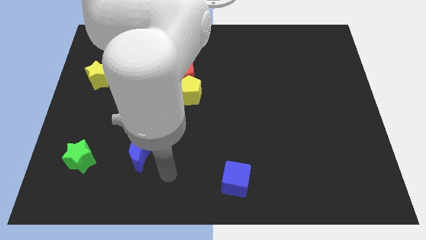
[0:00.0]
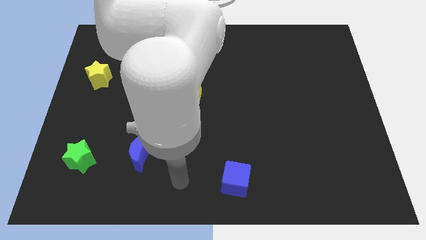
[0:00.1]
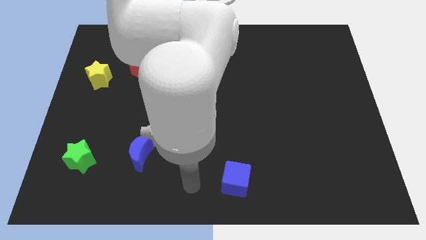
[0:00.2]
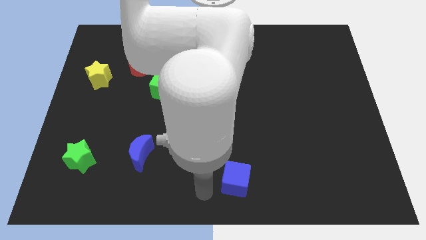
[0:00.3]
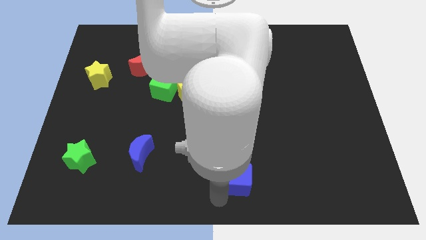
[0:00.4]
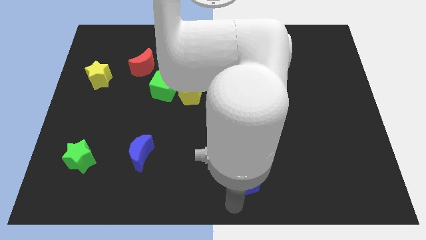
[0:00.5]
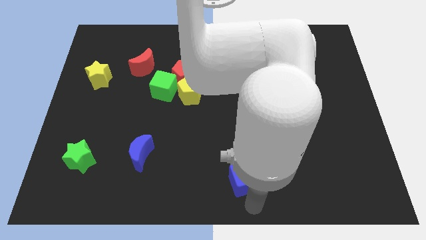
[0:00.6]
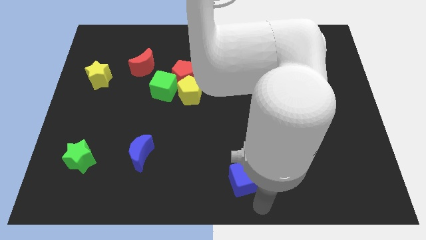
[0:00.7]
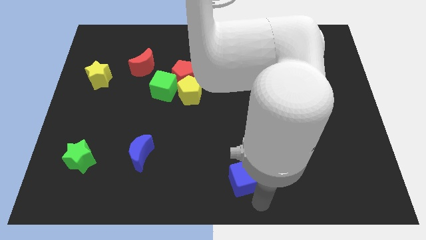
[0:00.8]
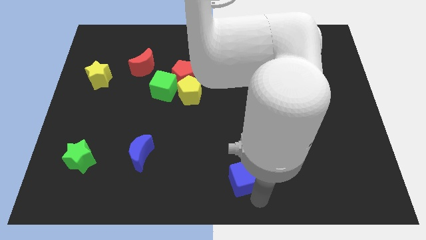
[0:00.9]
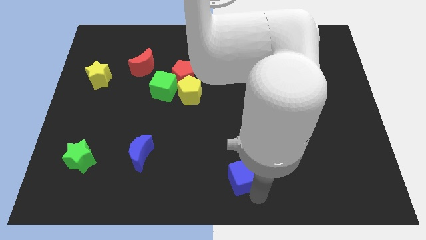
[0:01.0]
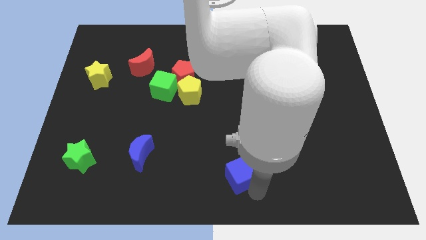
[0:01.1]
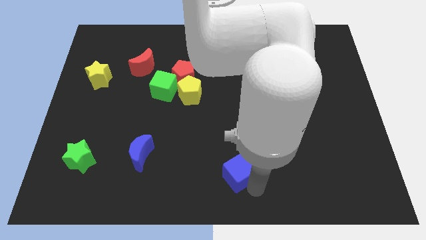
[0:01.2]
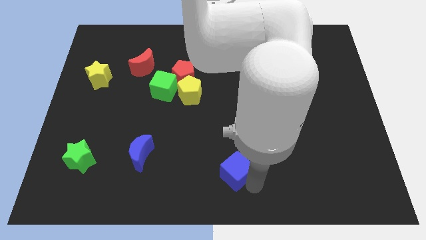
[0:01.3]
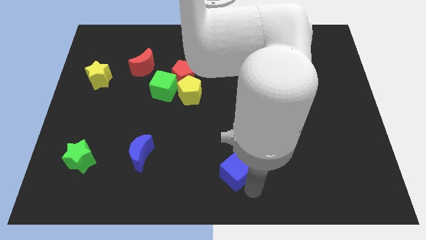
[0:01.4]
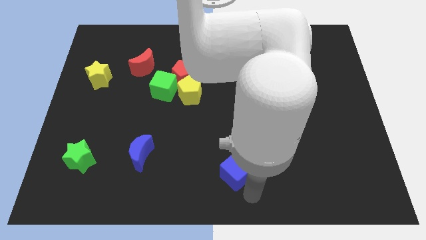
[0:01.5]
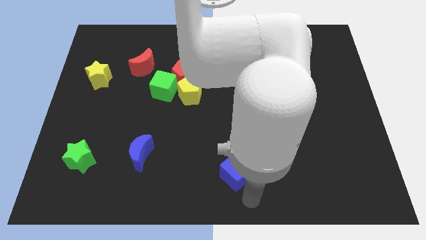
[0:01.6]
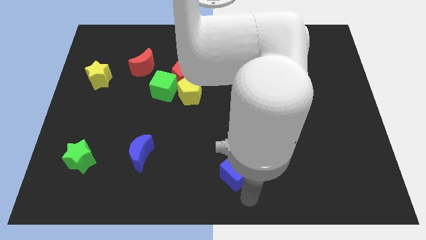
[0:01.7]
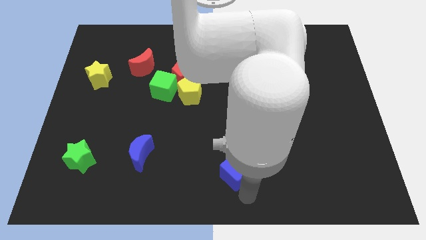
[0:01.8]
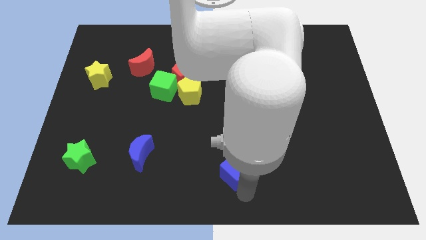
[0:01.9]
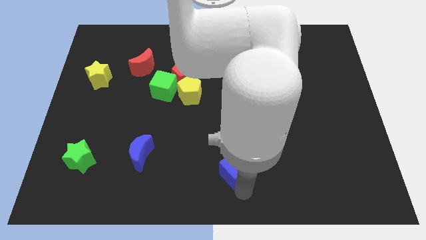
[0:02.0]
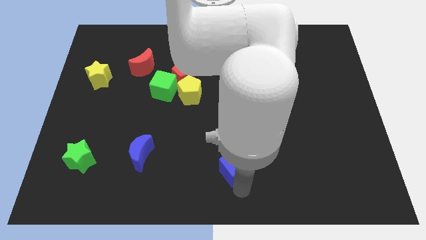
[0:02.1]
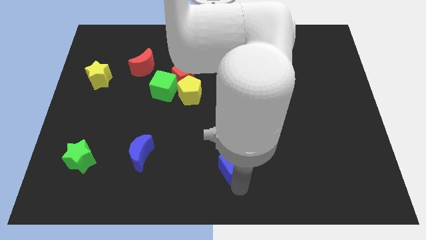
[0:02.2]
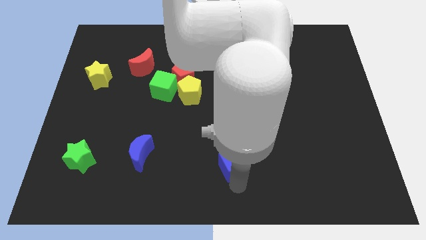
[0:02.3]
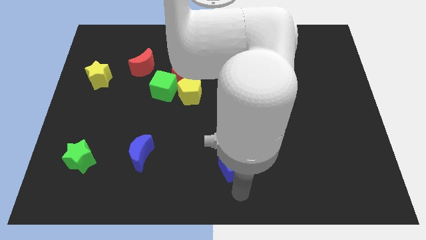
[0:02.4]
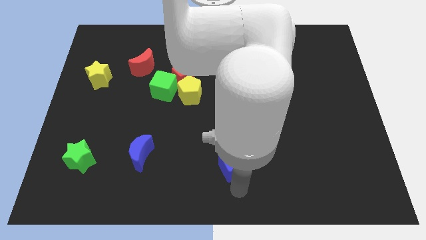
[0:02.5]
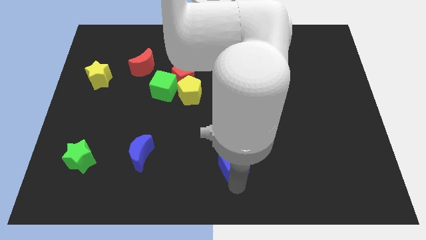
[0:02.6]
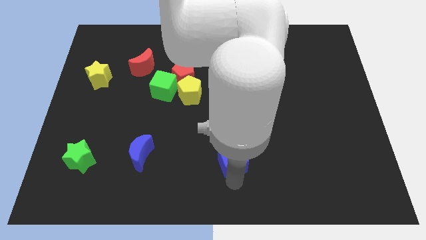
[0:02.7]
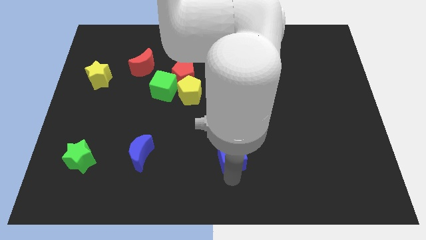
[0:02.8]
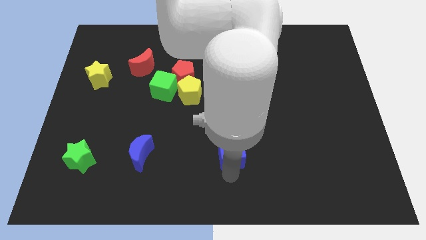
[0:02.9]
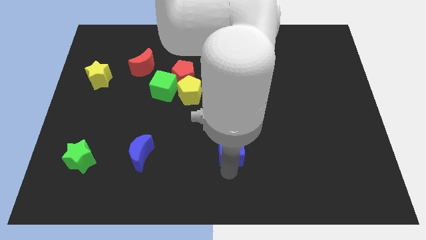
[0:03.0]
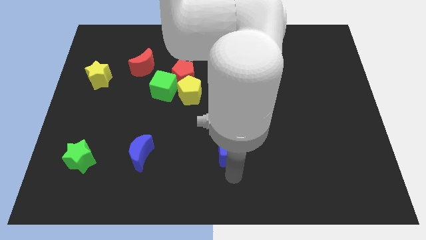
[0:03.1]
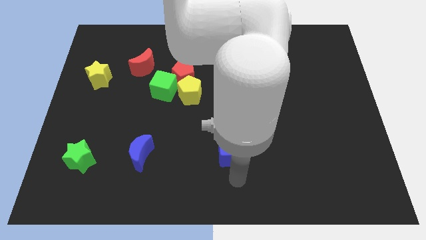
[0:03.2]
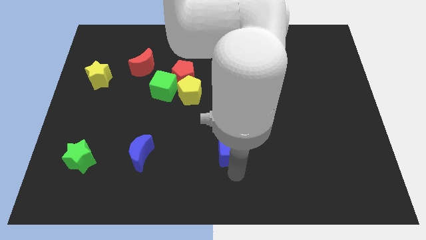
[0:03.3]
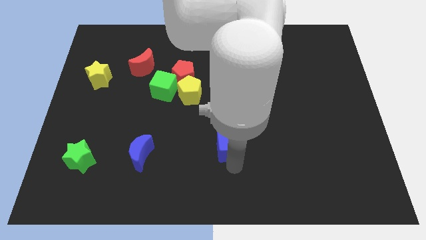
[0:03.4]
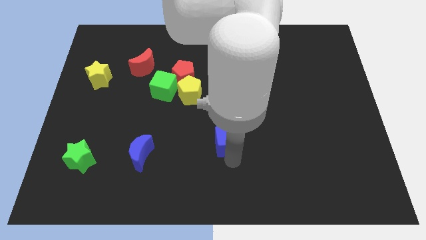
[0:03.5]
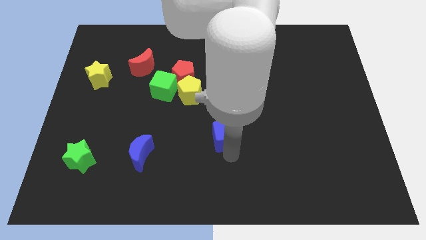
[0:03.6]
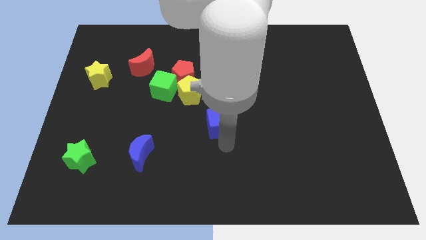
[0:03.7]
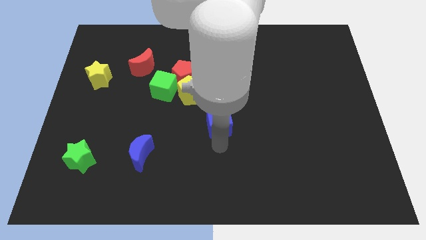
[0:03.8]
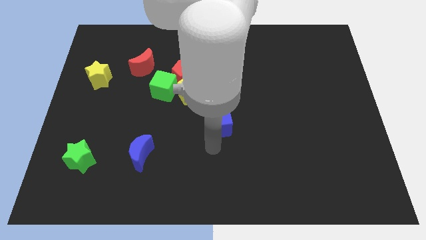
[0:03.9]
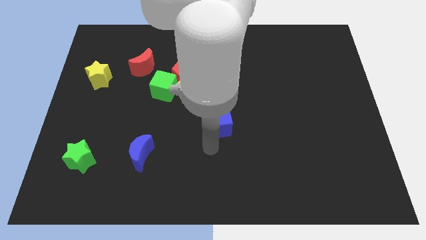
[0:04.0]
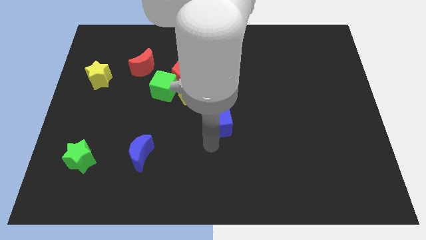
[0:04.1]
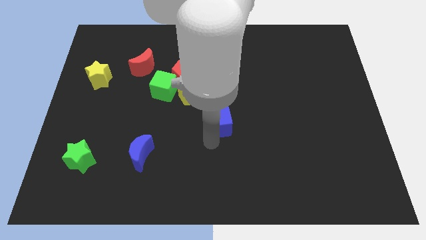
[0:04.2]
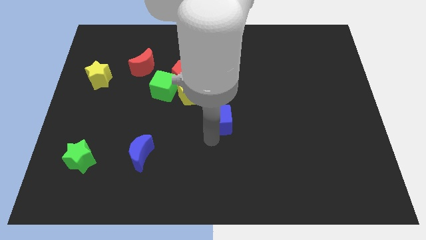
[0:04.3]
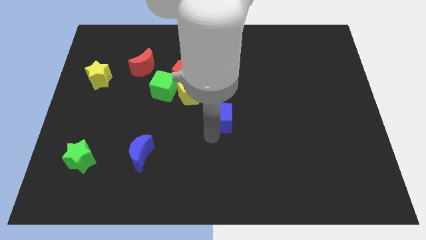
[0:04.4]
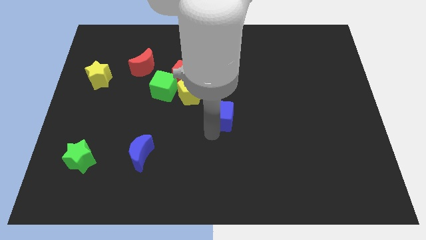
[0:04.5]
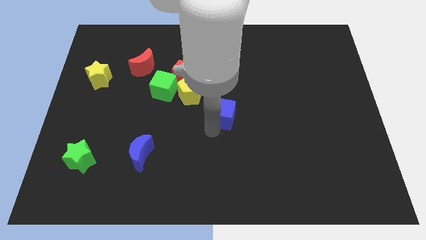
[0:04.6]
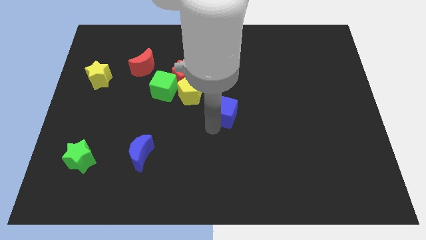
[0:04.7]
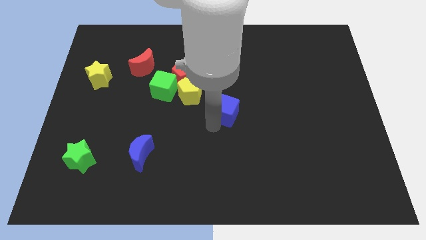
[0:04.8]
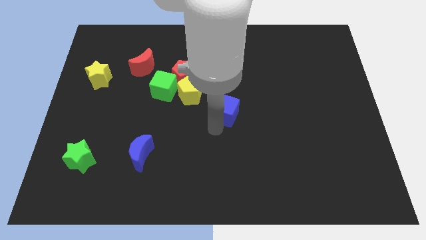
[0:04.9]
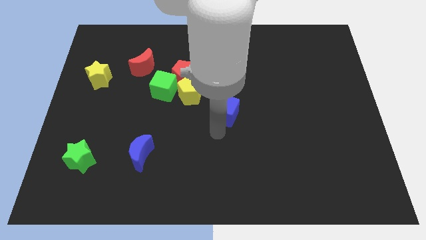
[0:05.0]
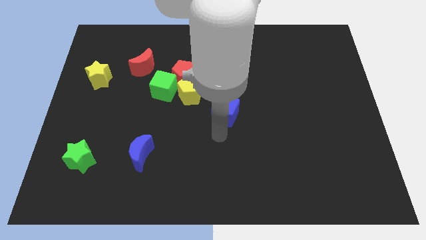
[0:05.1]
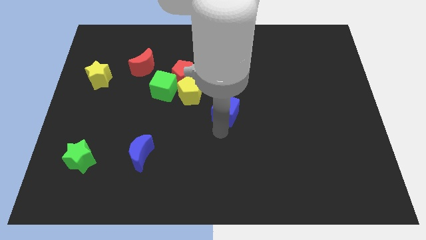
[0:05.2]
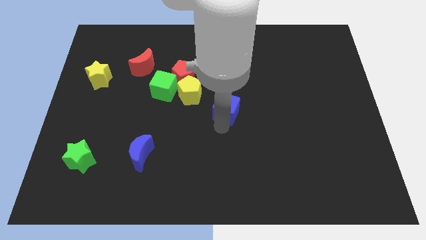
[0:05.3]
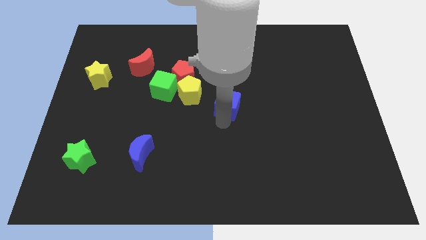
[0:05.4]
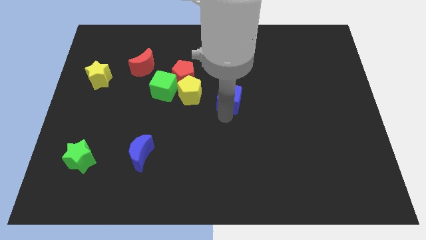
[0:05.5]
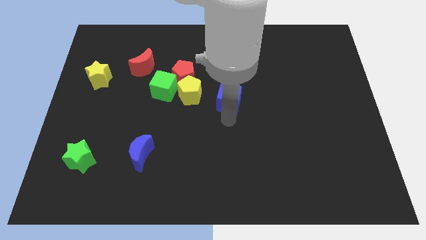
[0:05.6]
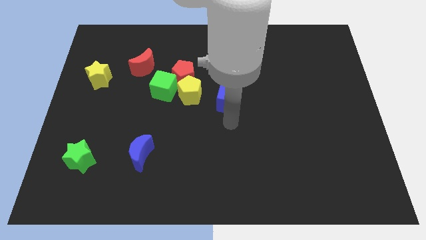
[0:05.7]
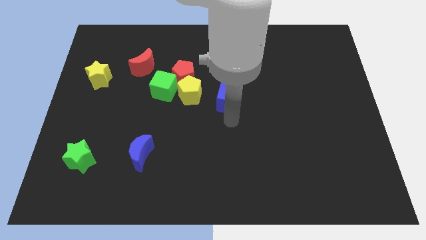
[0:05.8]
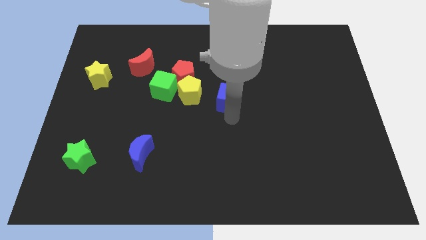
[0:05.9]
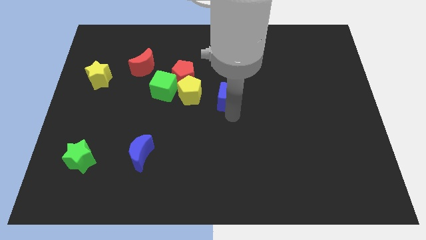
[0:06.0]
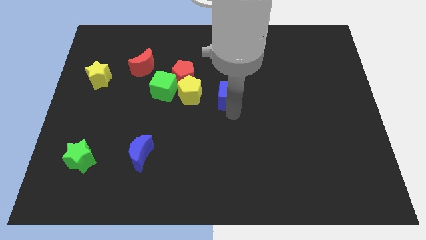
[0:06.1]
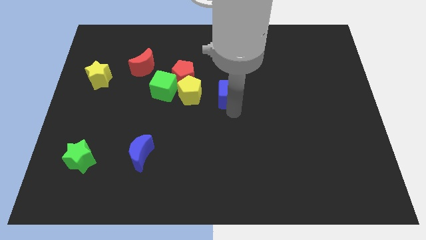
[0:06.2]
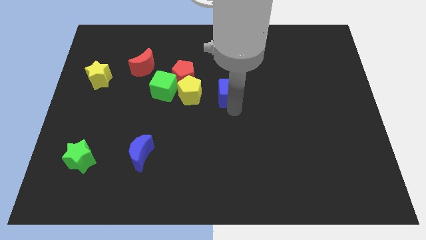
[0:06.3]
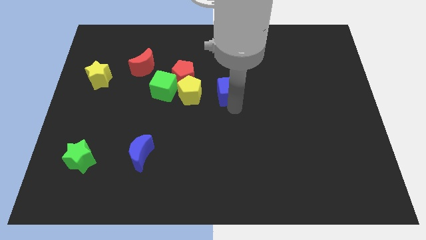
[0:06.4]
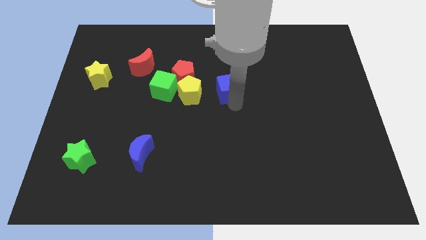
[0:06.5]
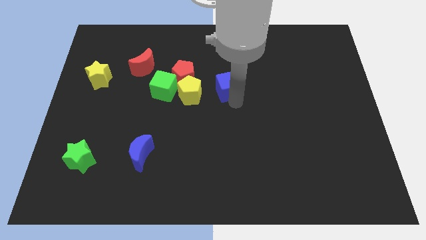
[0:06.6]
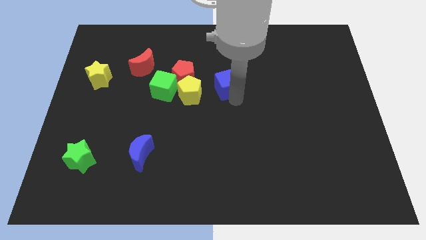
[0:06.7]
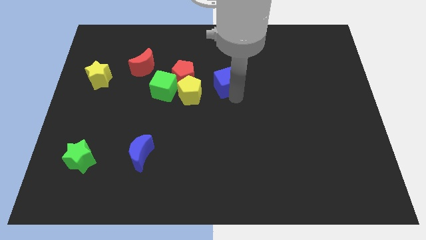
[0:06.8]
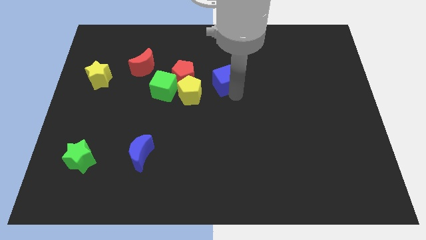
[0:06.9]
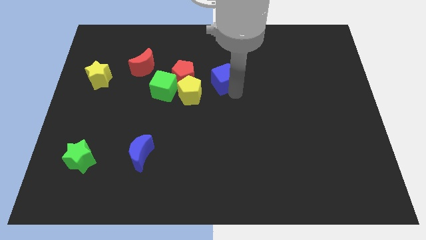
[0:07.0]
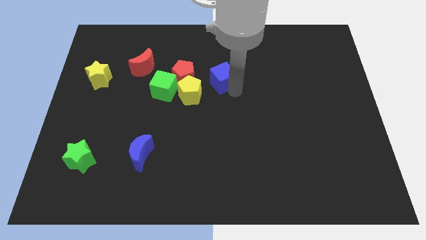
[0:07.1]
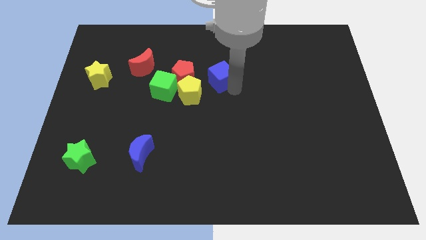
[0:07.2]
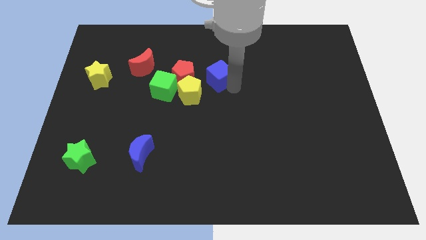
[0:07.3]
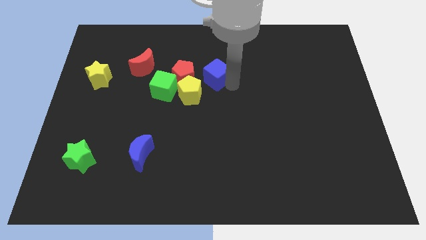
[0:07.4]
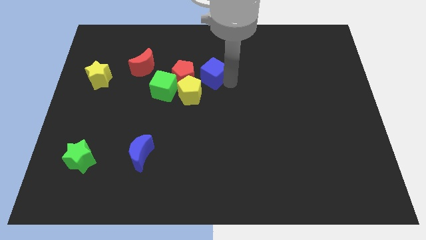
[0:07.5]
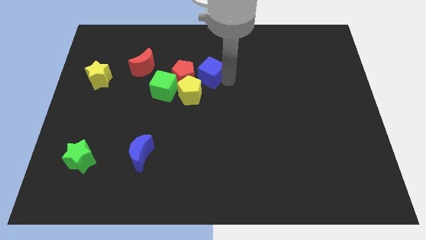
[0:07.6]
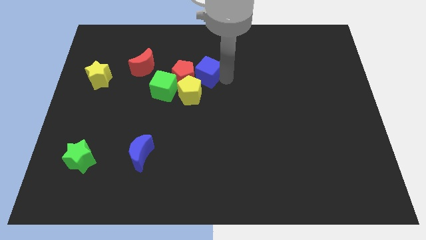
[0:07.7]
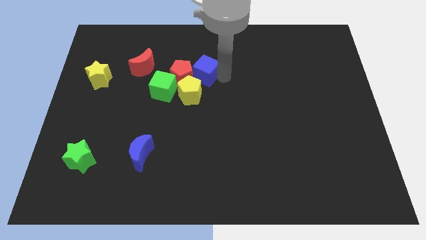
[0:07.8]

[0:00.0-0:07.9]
move the blue cube diagonally up and to the right of the green cube
